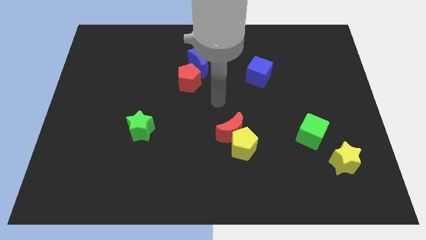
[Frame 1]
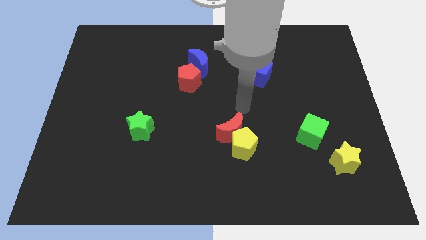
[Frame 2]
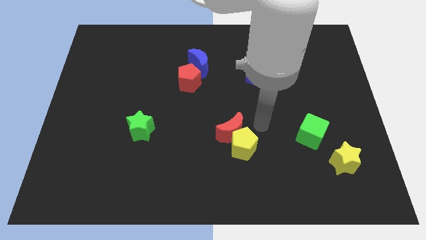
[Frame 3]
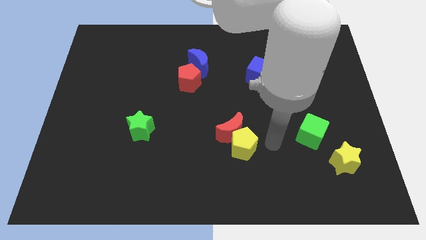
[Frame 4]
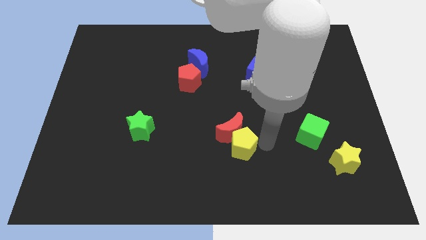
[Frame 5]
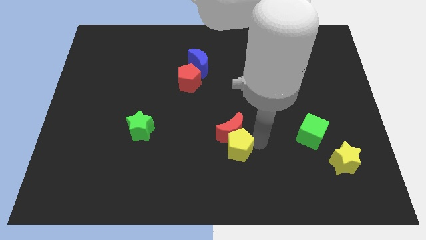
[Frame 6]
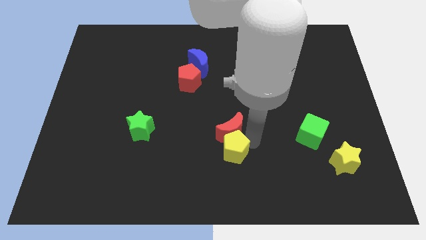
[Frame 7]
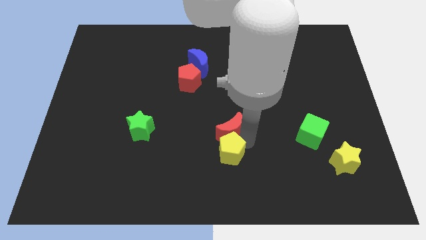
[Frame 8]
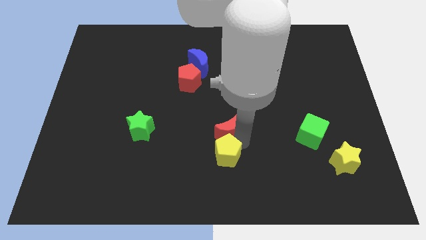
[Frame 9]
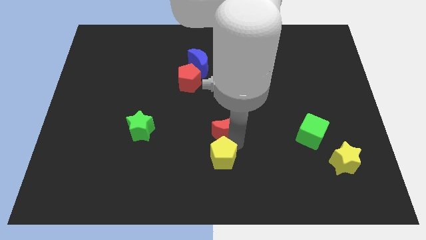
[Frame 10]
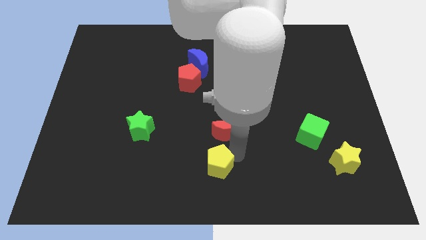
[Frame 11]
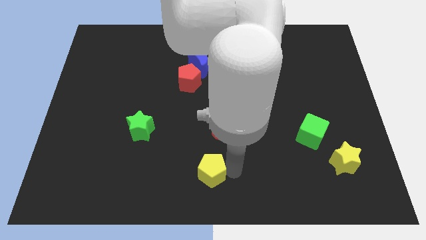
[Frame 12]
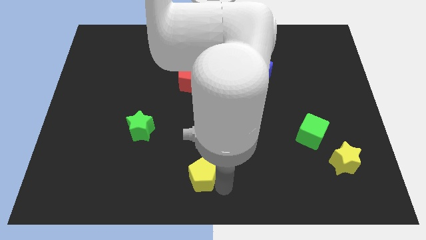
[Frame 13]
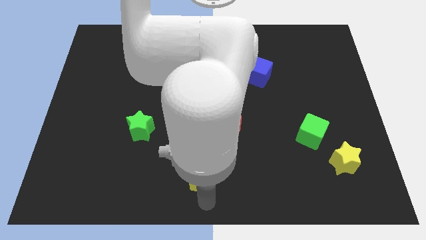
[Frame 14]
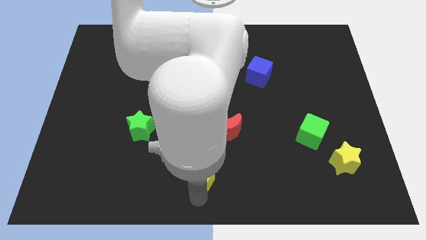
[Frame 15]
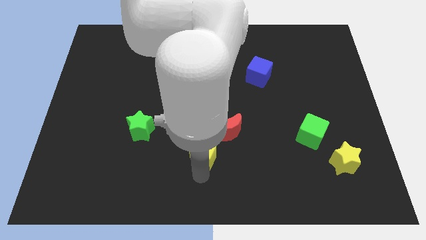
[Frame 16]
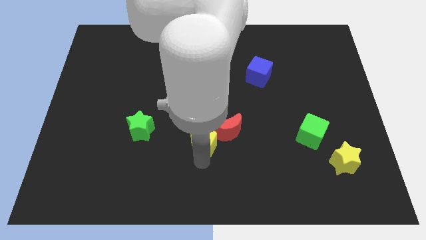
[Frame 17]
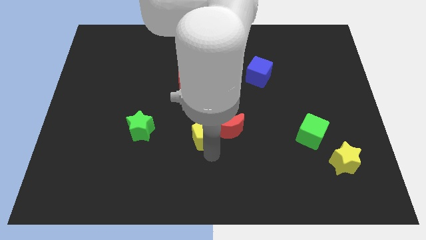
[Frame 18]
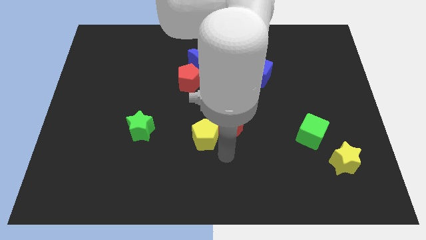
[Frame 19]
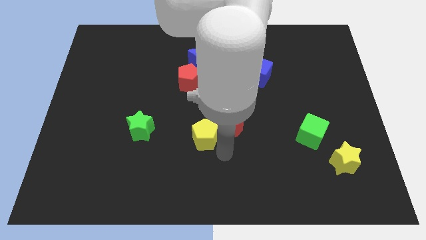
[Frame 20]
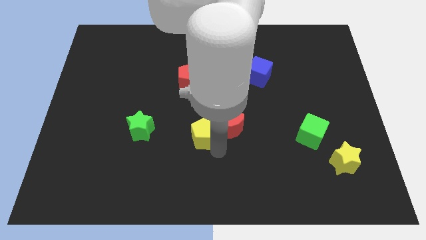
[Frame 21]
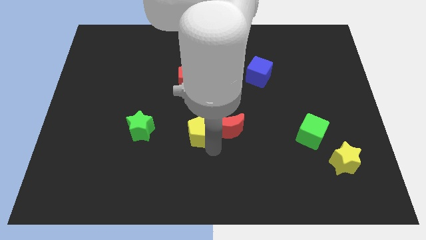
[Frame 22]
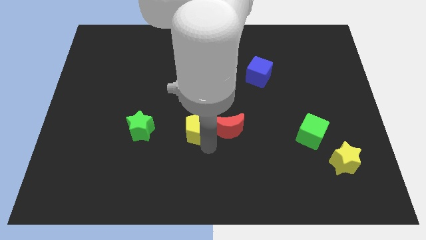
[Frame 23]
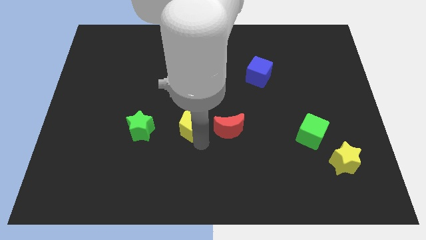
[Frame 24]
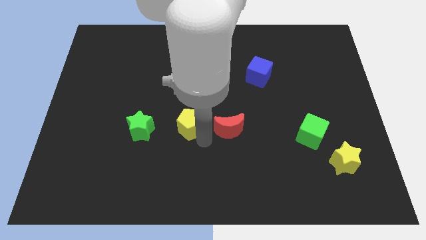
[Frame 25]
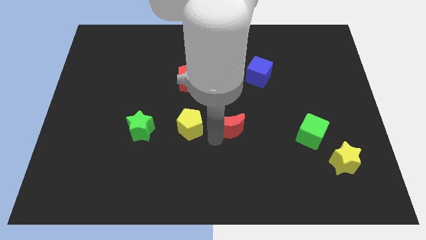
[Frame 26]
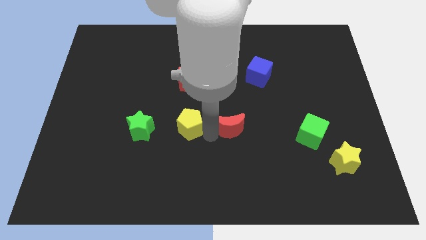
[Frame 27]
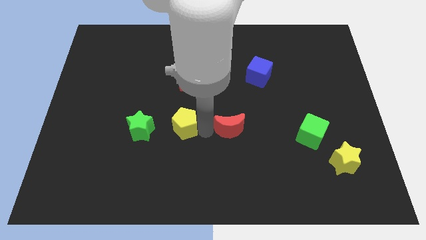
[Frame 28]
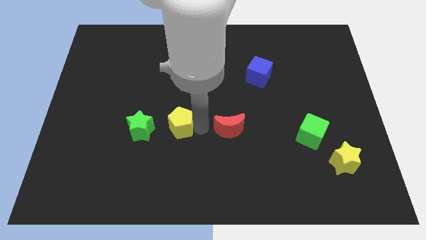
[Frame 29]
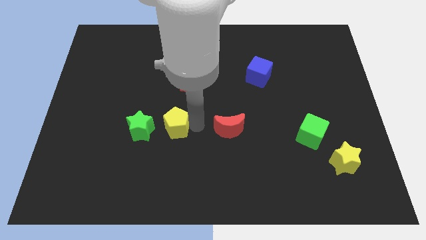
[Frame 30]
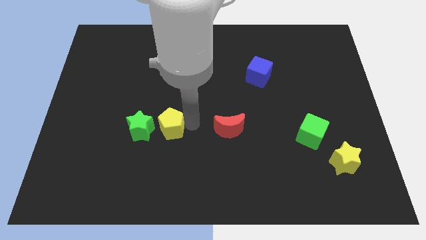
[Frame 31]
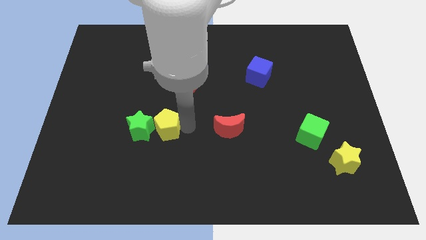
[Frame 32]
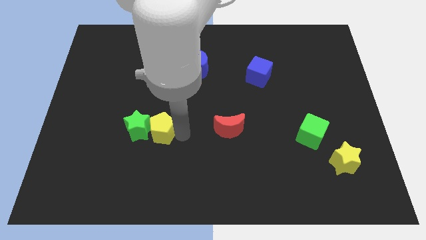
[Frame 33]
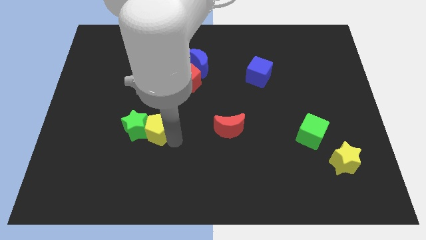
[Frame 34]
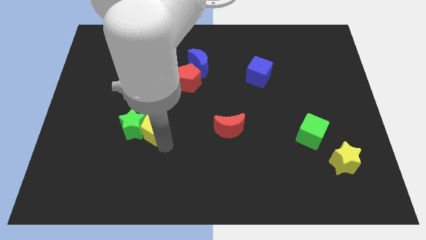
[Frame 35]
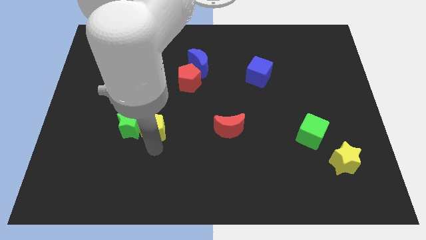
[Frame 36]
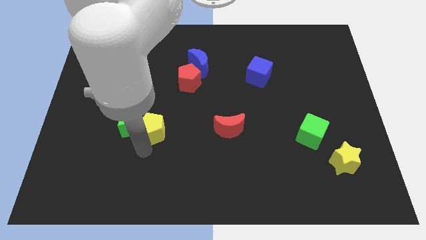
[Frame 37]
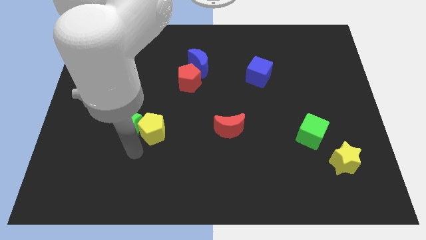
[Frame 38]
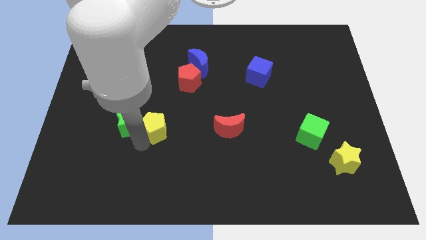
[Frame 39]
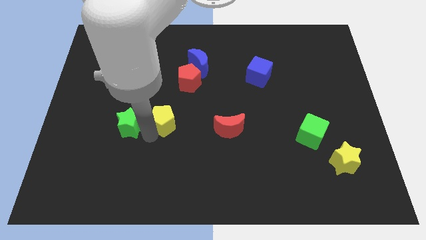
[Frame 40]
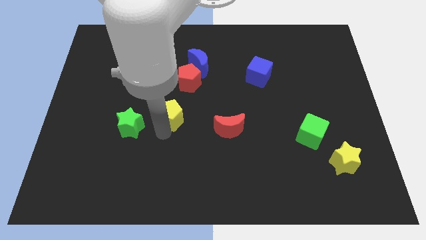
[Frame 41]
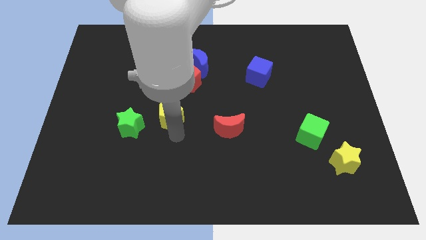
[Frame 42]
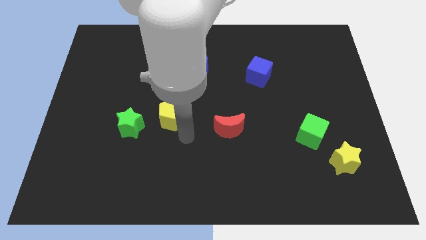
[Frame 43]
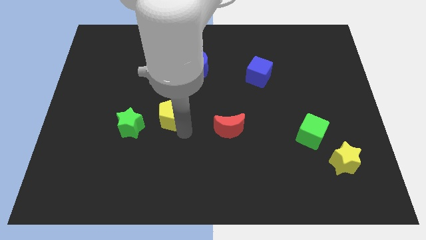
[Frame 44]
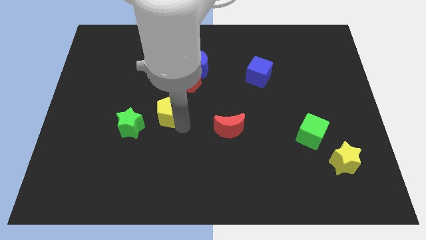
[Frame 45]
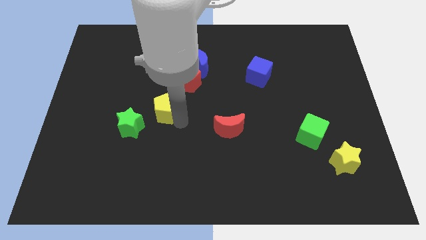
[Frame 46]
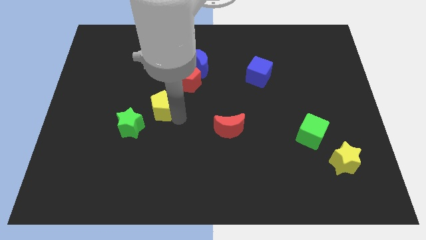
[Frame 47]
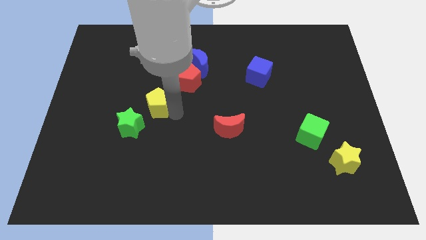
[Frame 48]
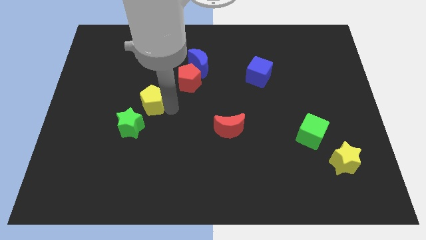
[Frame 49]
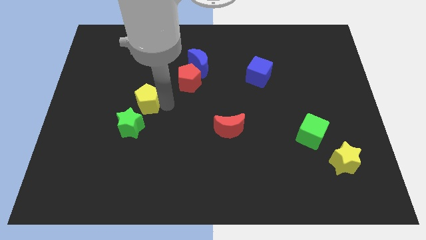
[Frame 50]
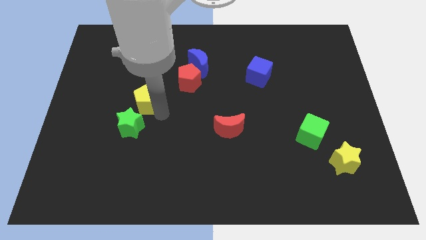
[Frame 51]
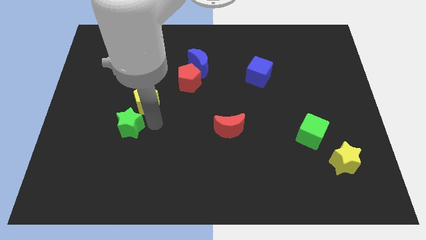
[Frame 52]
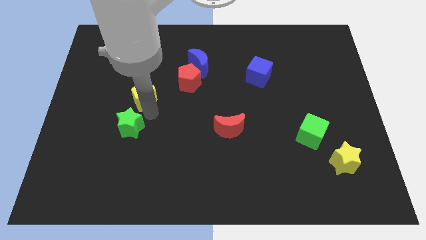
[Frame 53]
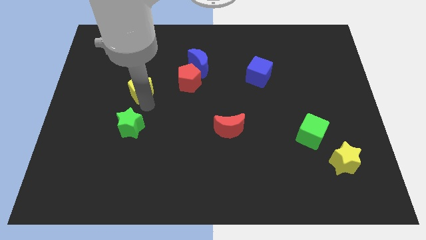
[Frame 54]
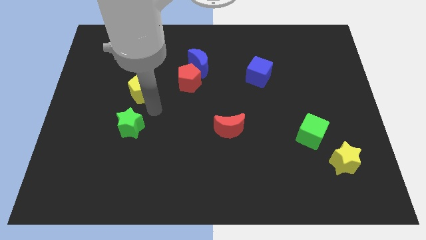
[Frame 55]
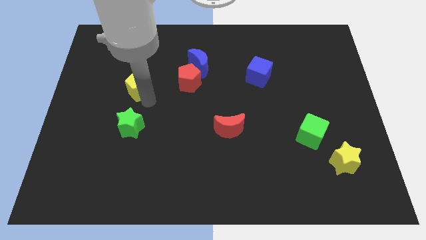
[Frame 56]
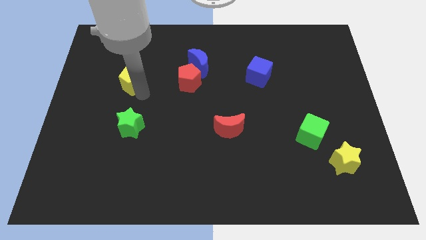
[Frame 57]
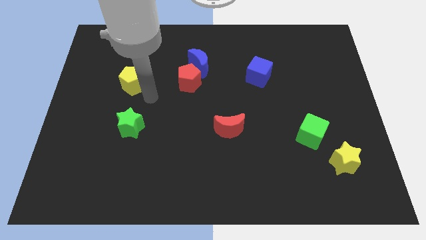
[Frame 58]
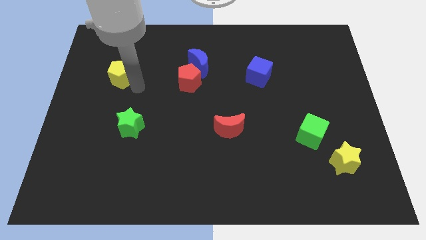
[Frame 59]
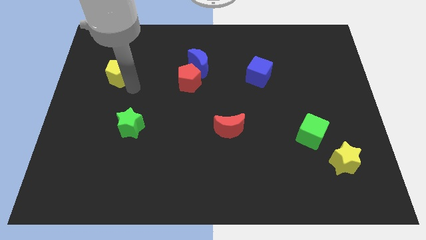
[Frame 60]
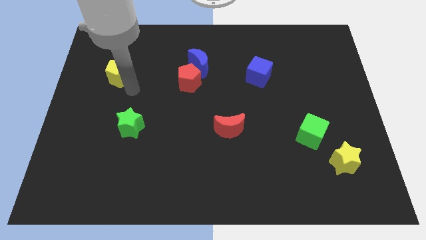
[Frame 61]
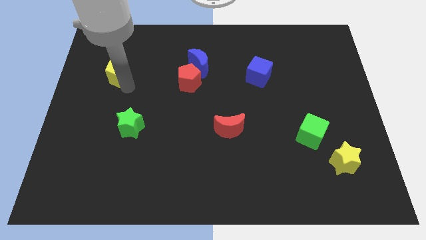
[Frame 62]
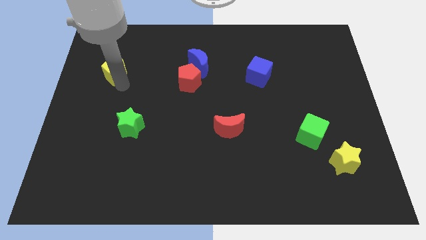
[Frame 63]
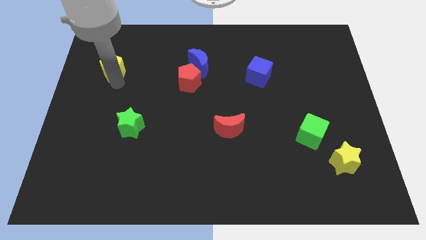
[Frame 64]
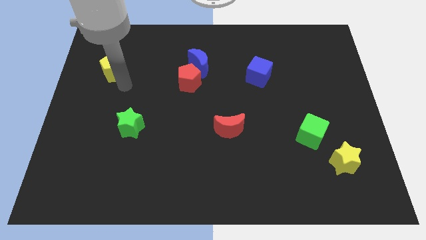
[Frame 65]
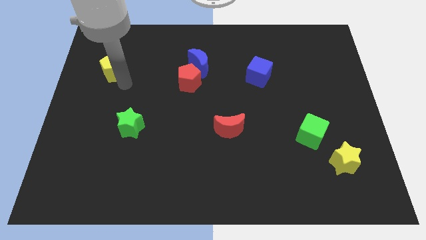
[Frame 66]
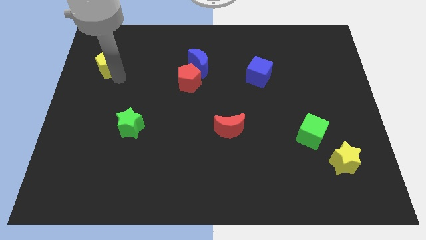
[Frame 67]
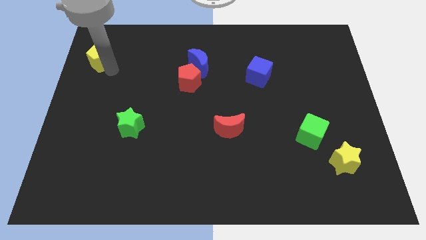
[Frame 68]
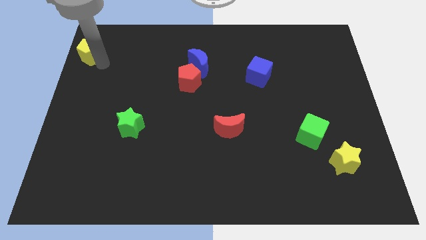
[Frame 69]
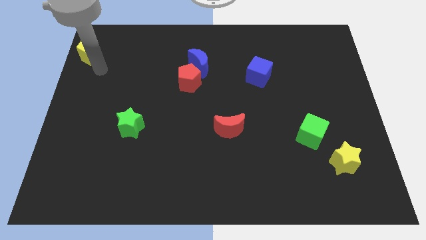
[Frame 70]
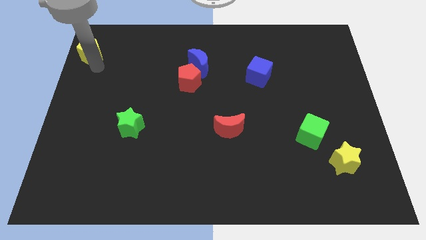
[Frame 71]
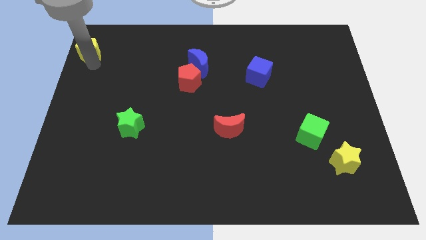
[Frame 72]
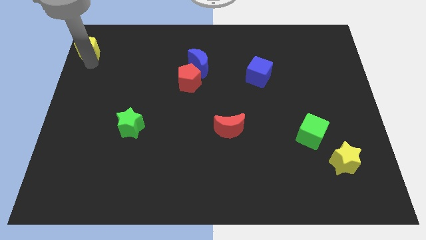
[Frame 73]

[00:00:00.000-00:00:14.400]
move the yellow pentagon to the top left
